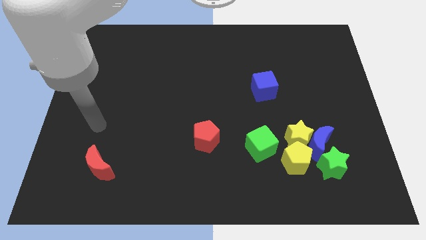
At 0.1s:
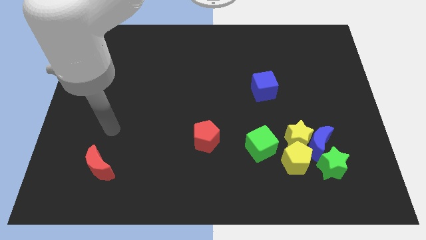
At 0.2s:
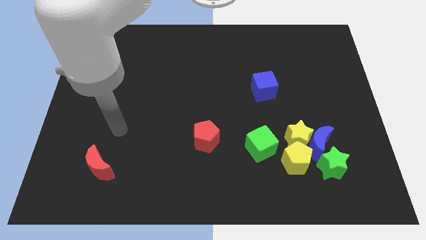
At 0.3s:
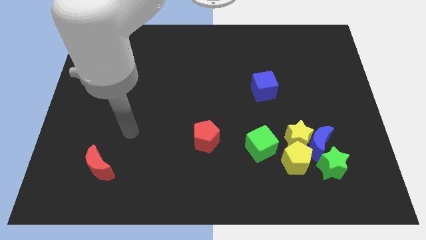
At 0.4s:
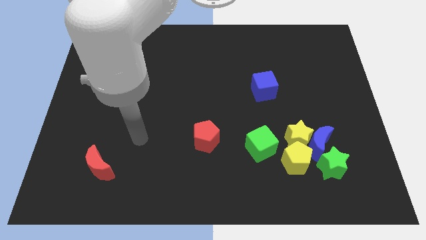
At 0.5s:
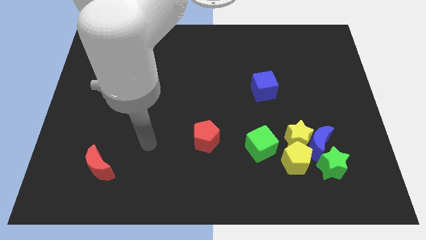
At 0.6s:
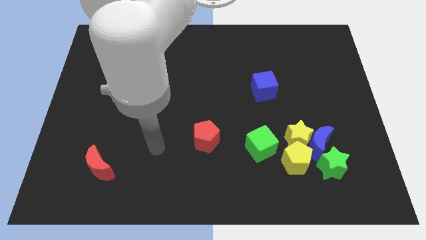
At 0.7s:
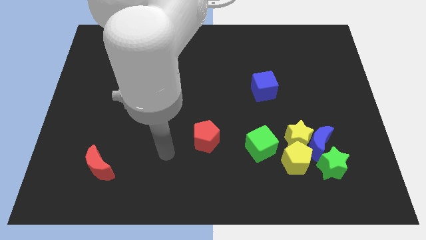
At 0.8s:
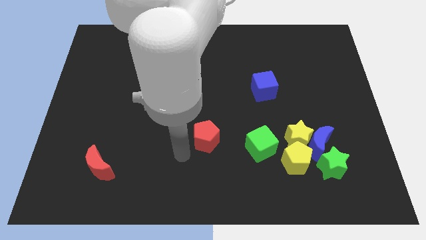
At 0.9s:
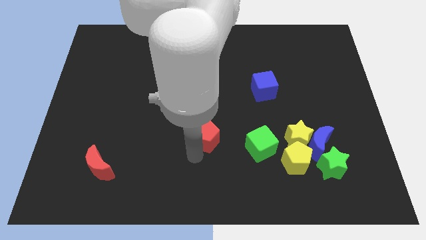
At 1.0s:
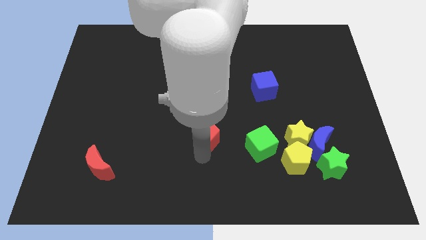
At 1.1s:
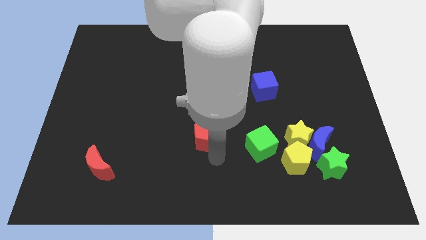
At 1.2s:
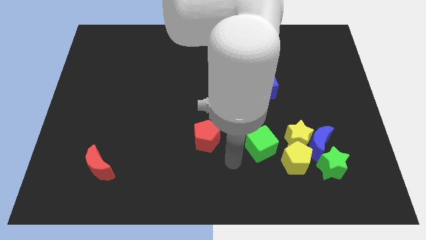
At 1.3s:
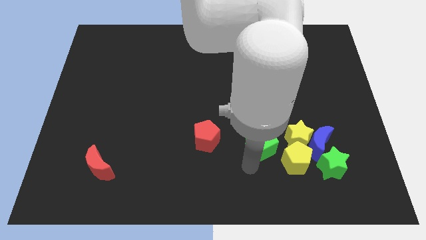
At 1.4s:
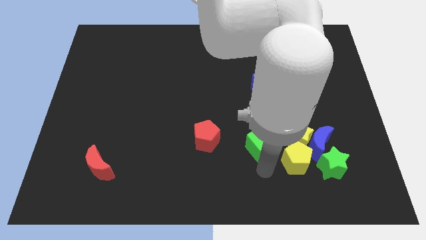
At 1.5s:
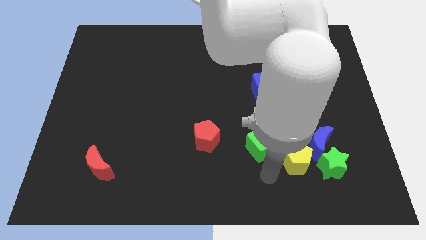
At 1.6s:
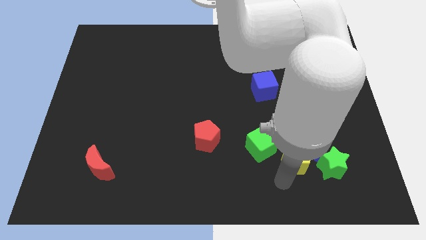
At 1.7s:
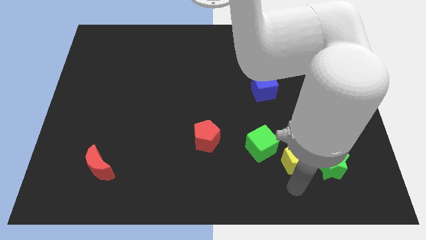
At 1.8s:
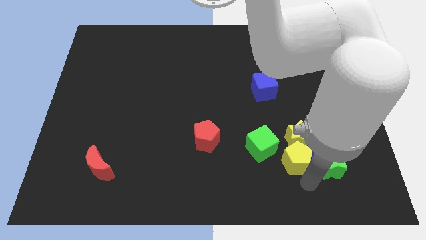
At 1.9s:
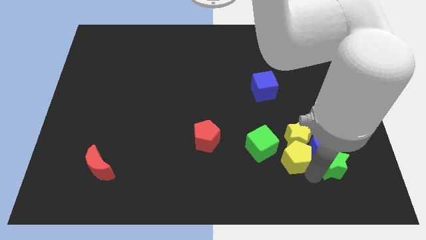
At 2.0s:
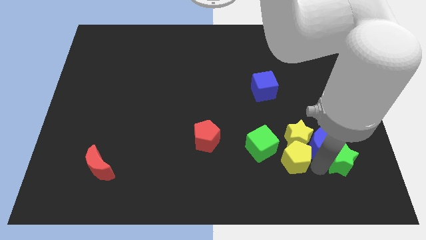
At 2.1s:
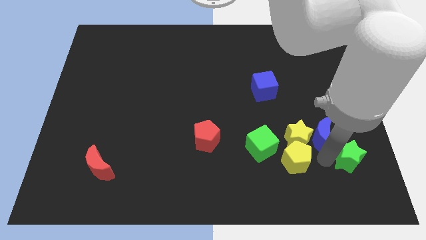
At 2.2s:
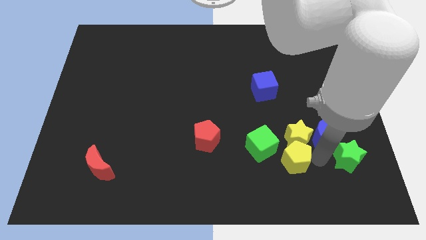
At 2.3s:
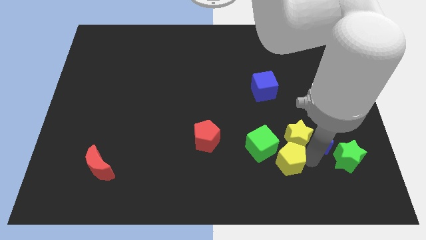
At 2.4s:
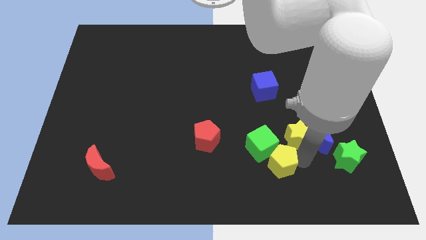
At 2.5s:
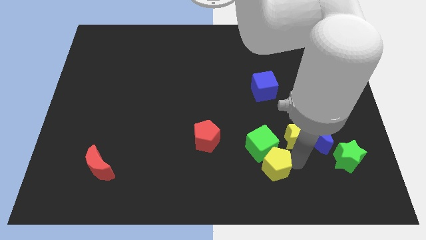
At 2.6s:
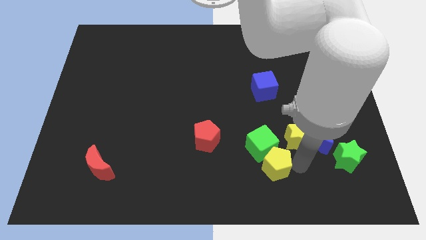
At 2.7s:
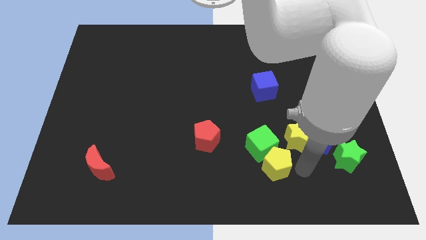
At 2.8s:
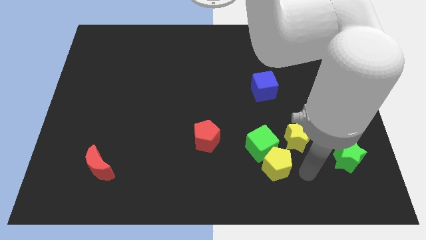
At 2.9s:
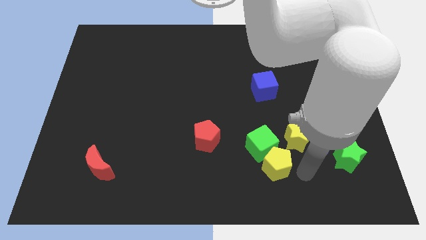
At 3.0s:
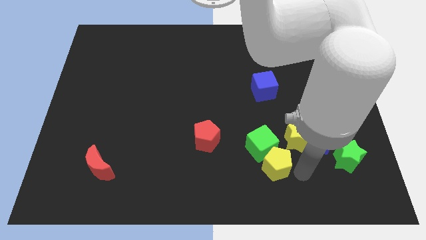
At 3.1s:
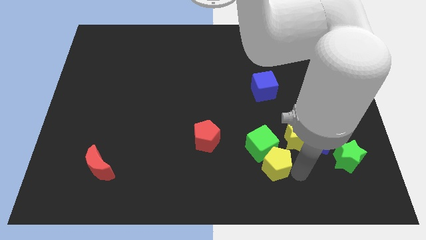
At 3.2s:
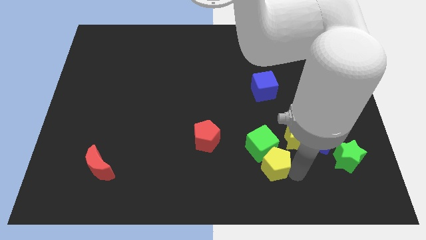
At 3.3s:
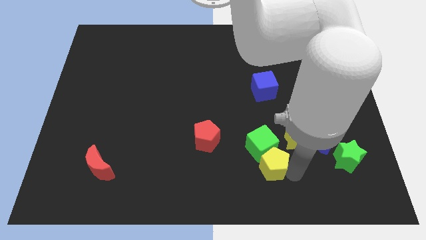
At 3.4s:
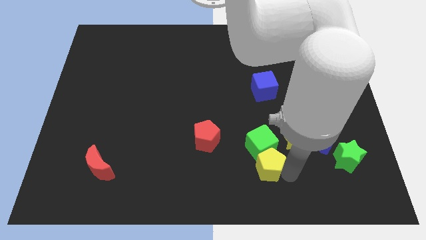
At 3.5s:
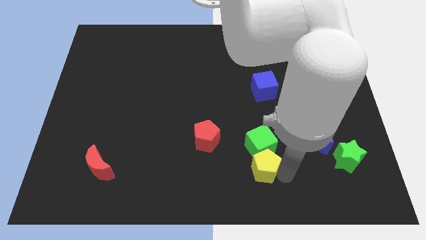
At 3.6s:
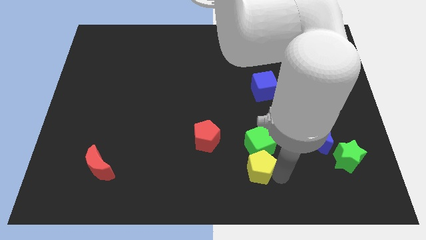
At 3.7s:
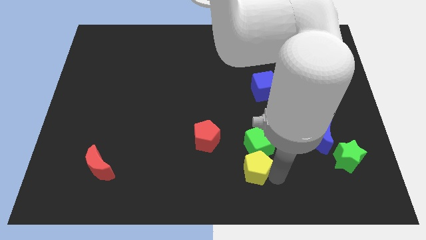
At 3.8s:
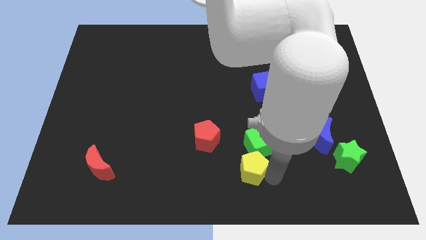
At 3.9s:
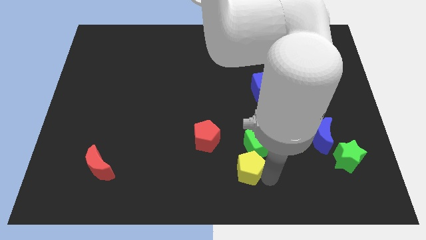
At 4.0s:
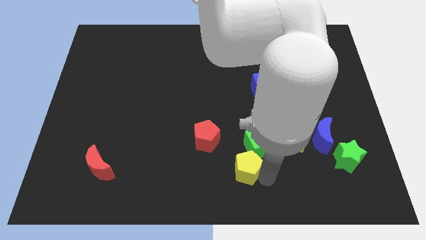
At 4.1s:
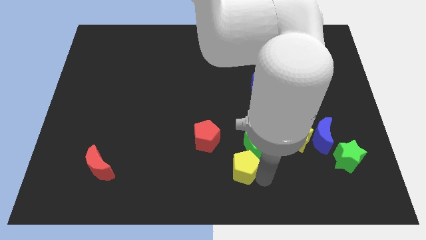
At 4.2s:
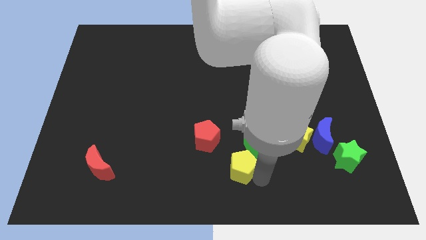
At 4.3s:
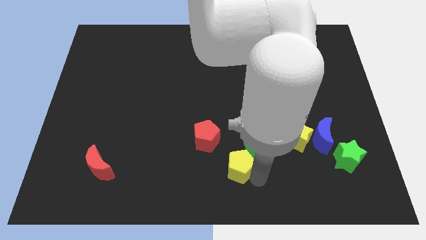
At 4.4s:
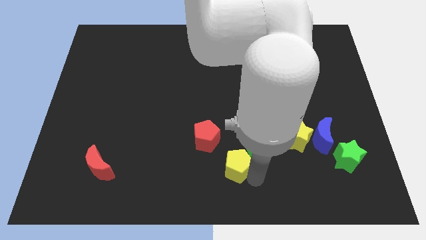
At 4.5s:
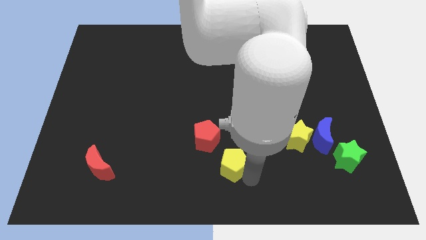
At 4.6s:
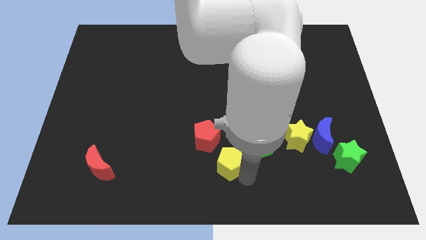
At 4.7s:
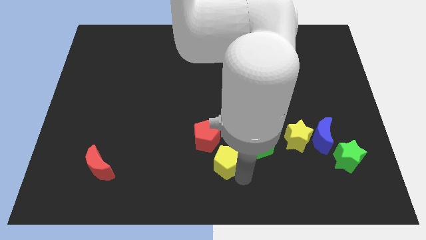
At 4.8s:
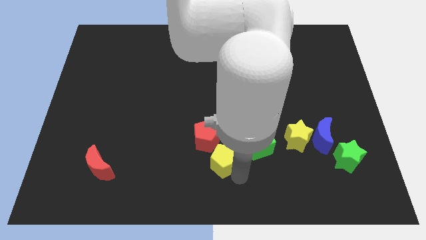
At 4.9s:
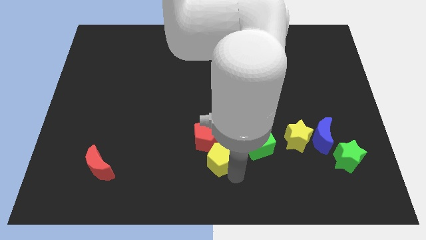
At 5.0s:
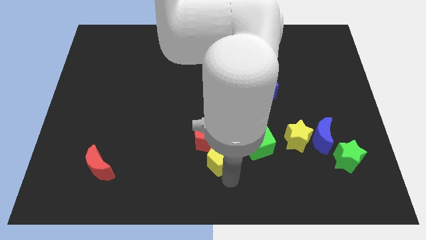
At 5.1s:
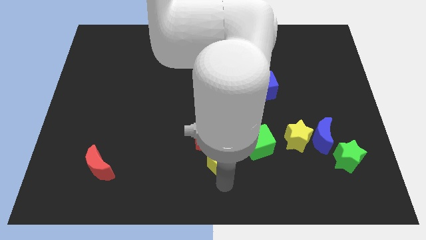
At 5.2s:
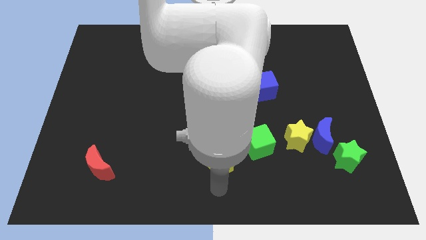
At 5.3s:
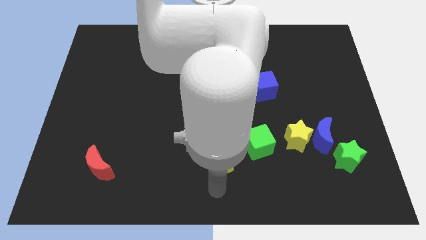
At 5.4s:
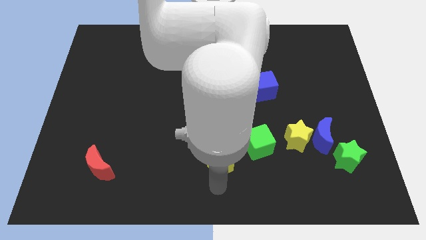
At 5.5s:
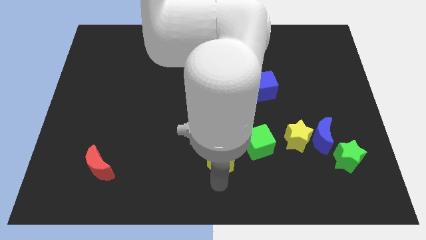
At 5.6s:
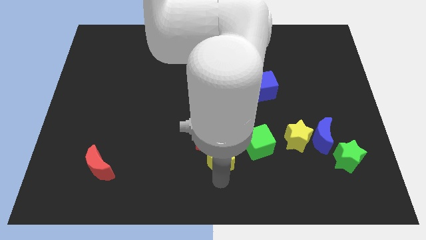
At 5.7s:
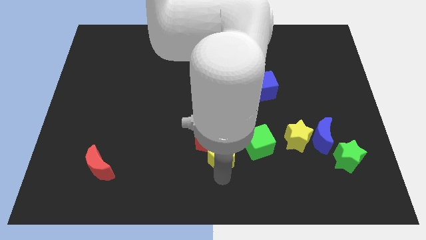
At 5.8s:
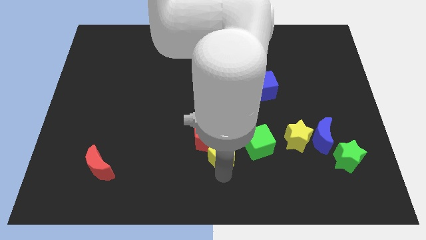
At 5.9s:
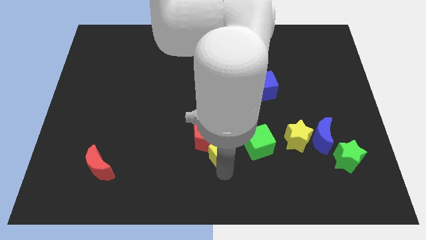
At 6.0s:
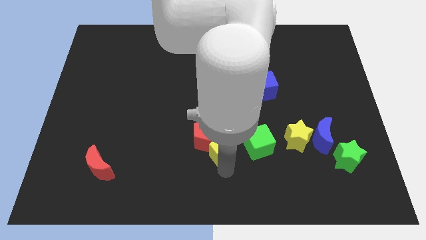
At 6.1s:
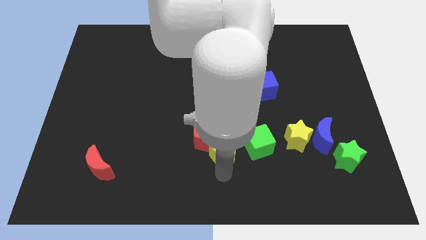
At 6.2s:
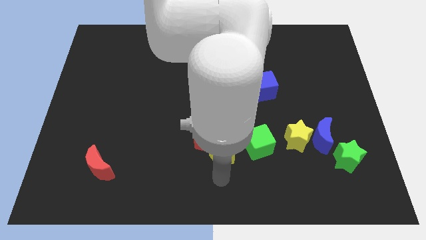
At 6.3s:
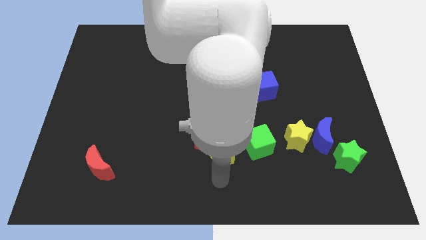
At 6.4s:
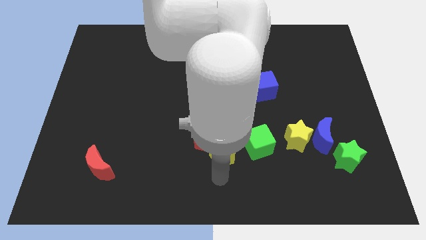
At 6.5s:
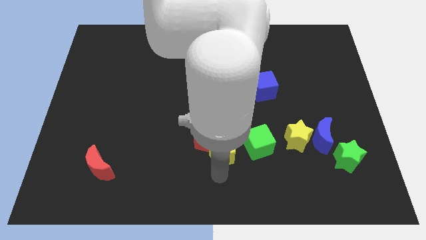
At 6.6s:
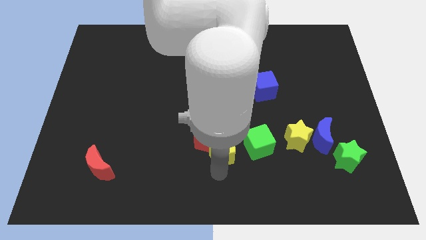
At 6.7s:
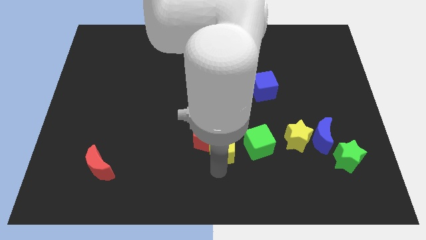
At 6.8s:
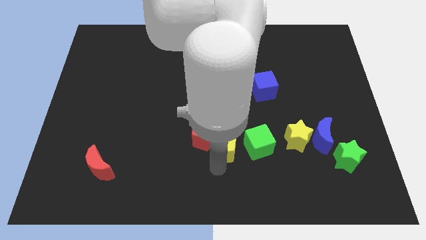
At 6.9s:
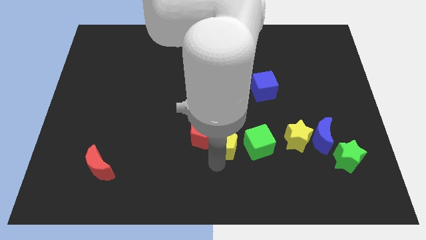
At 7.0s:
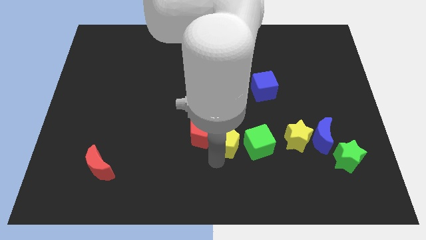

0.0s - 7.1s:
put the yellow pentagon to the center of the board
